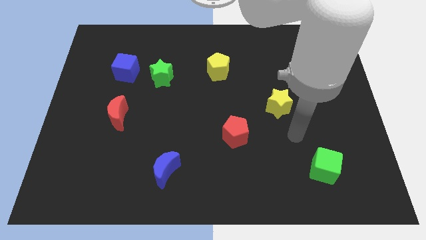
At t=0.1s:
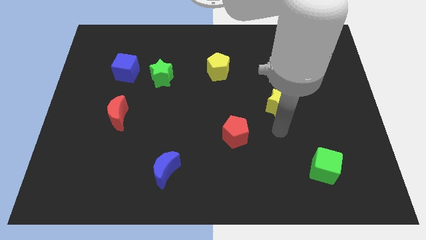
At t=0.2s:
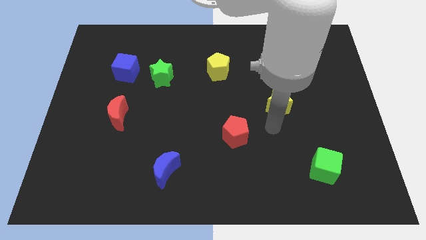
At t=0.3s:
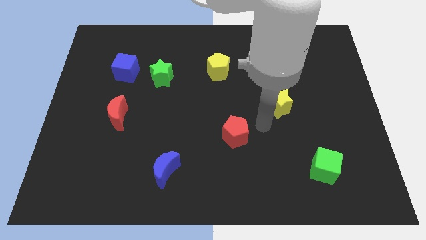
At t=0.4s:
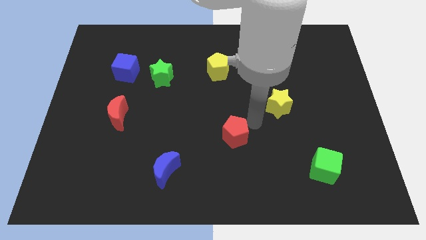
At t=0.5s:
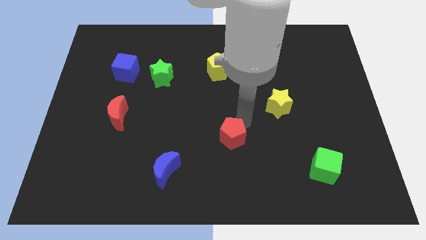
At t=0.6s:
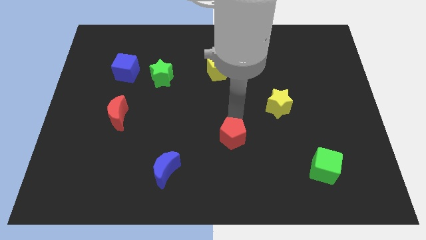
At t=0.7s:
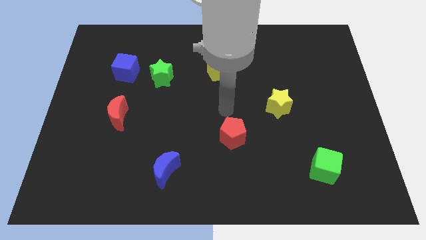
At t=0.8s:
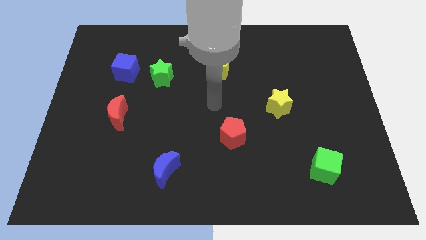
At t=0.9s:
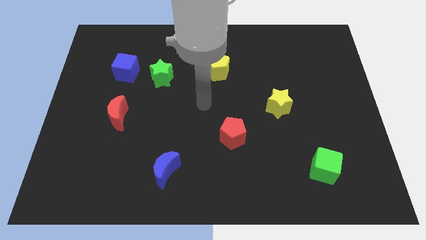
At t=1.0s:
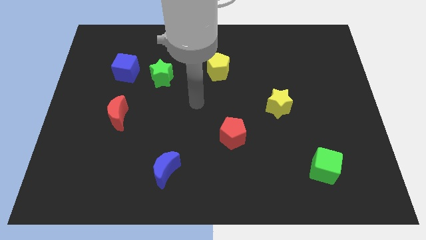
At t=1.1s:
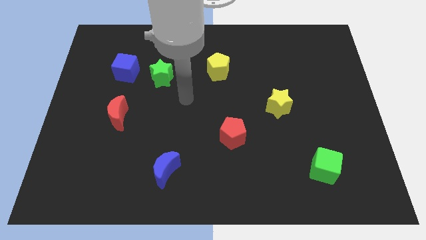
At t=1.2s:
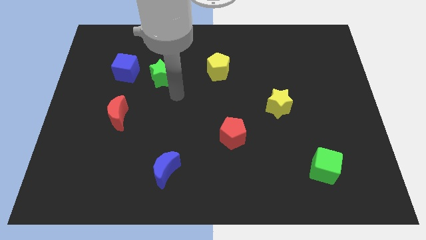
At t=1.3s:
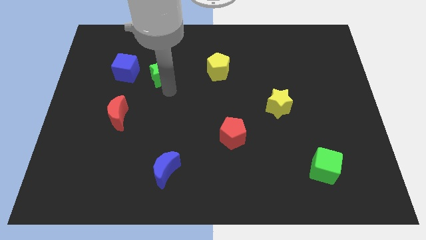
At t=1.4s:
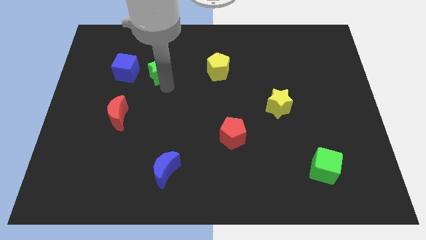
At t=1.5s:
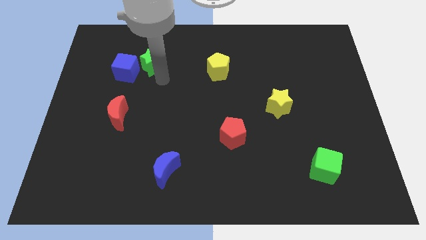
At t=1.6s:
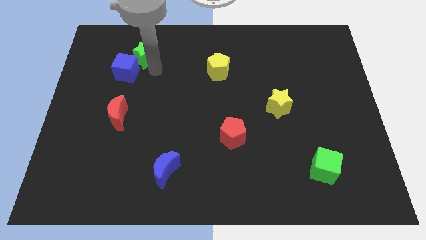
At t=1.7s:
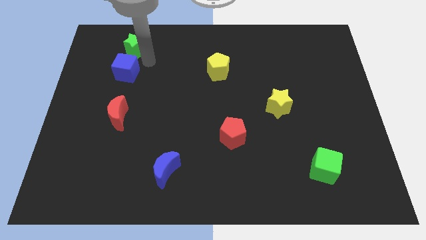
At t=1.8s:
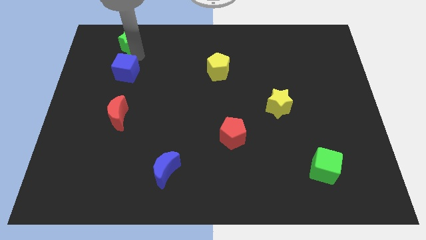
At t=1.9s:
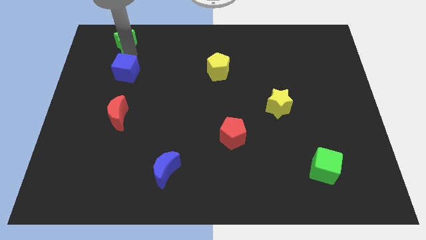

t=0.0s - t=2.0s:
separate the blue cube from the green star

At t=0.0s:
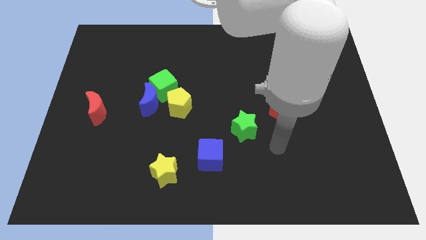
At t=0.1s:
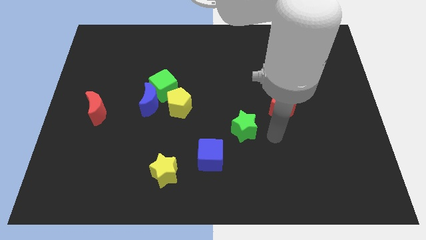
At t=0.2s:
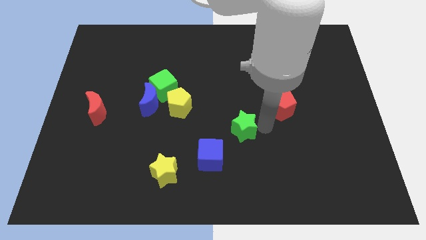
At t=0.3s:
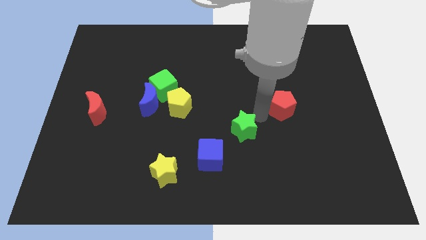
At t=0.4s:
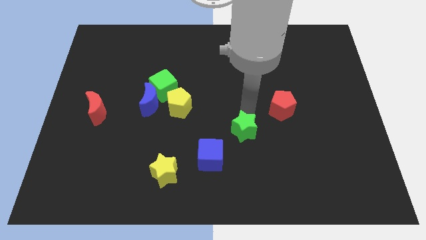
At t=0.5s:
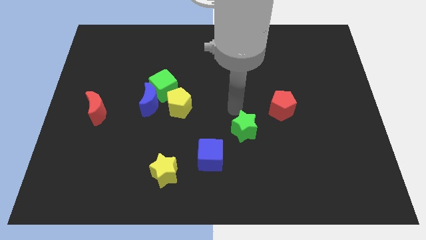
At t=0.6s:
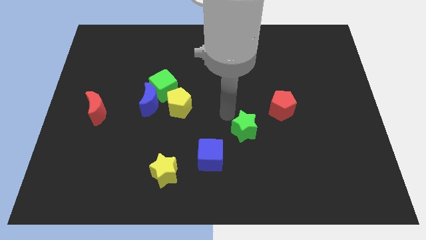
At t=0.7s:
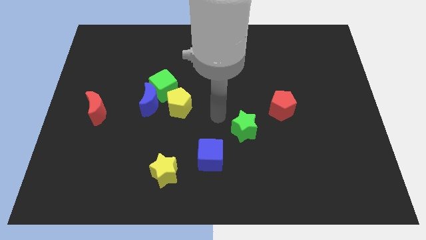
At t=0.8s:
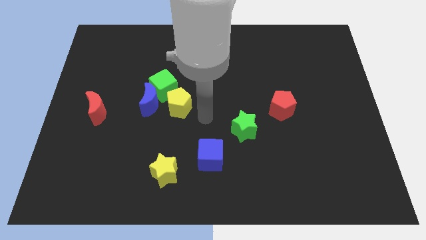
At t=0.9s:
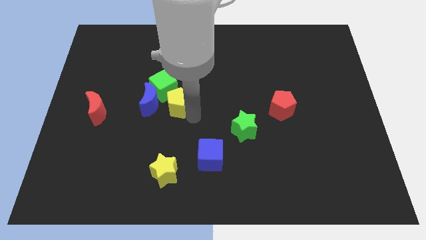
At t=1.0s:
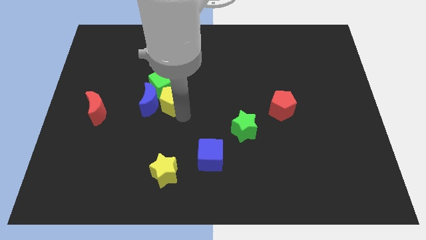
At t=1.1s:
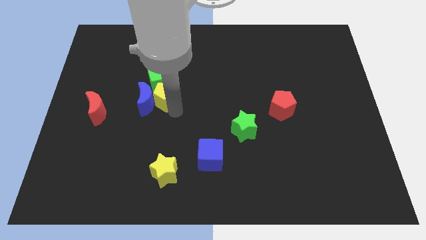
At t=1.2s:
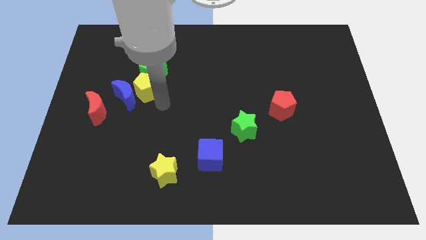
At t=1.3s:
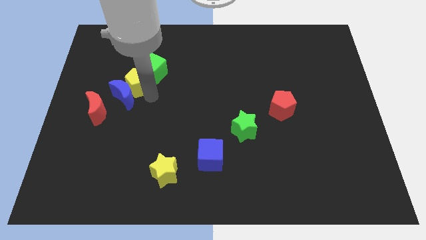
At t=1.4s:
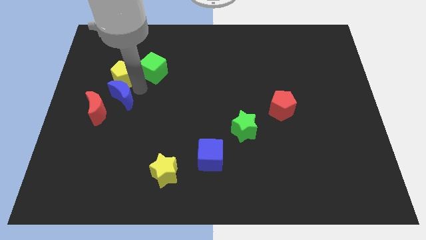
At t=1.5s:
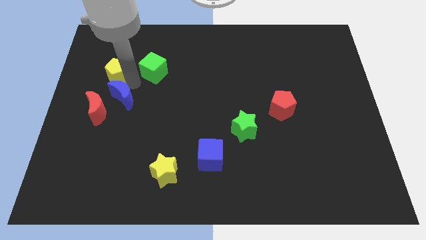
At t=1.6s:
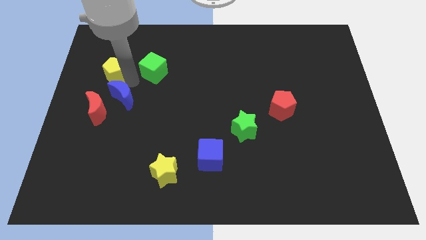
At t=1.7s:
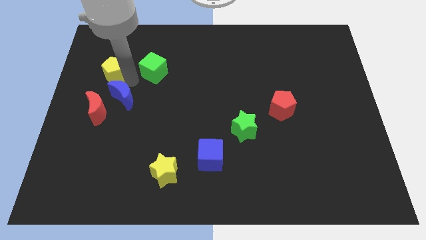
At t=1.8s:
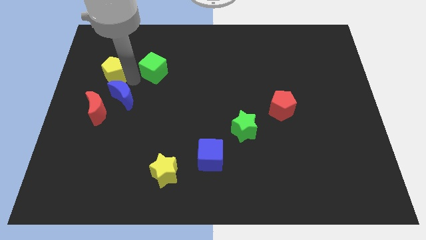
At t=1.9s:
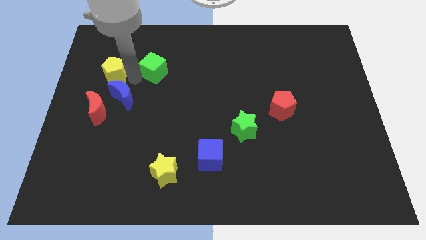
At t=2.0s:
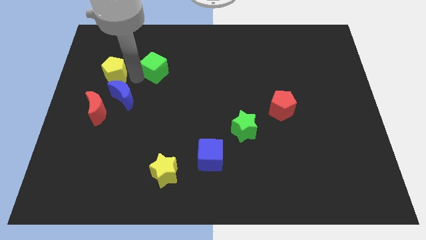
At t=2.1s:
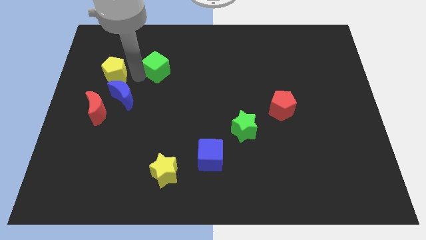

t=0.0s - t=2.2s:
pull the green cube apart from the blue moon and yellow pentagon

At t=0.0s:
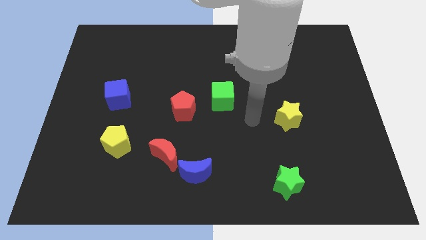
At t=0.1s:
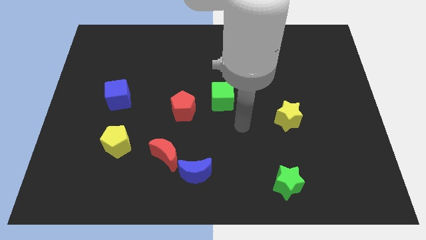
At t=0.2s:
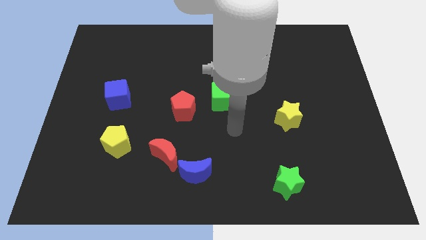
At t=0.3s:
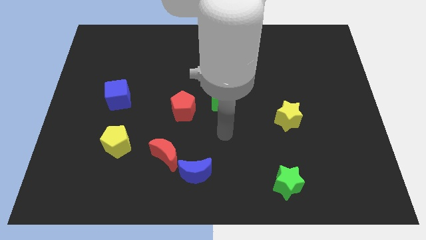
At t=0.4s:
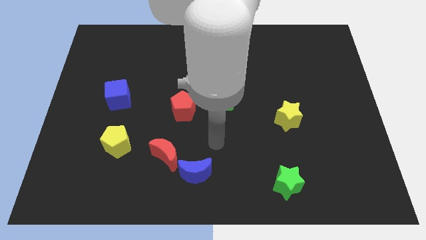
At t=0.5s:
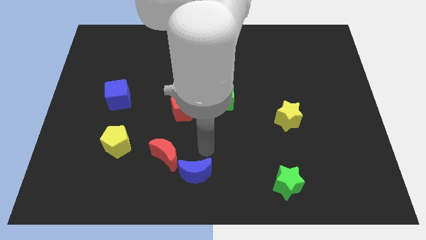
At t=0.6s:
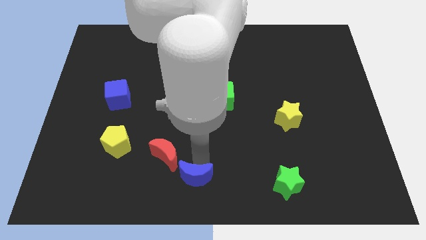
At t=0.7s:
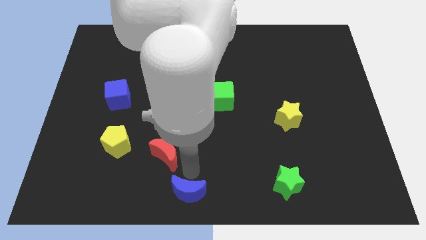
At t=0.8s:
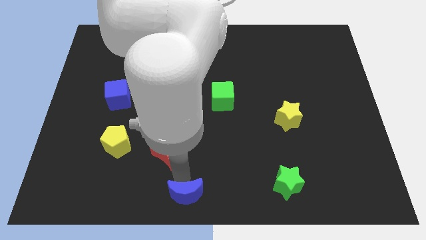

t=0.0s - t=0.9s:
pull the red moon apart from the blue moon

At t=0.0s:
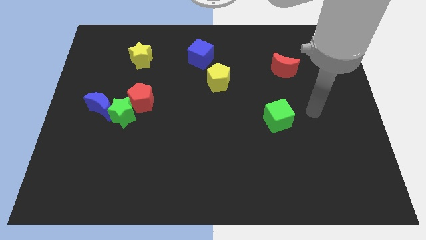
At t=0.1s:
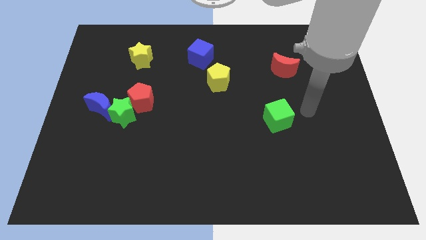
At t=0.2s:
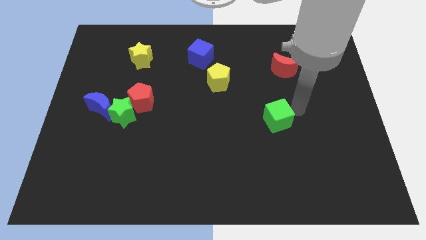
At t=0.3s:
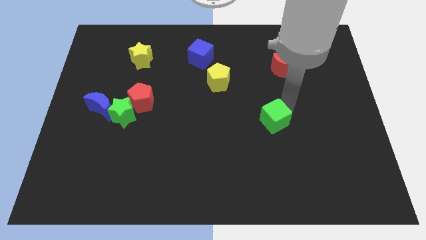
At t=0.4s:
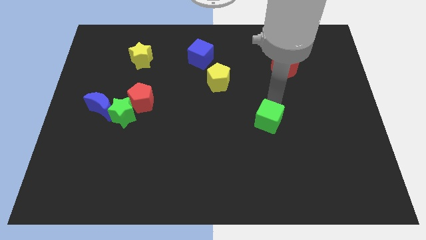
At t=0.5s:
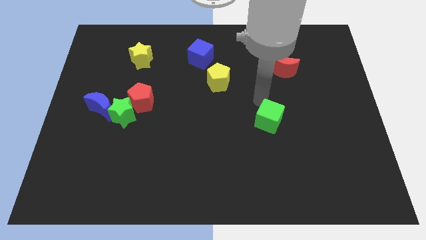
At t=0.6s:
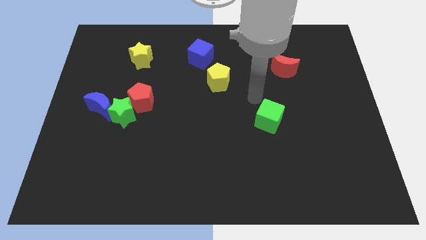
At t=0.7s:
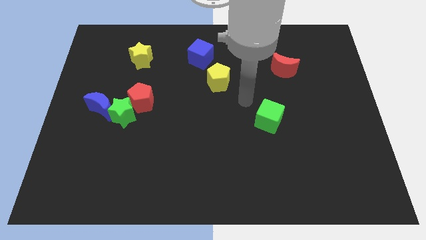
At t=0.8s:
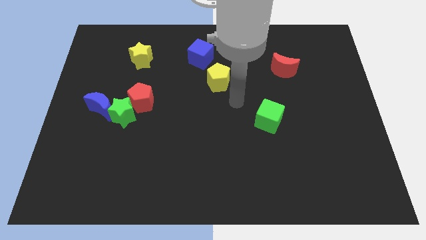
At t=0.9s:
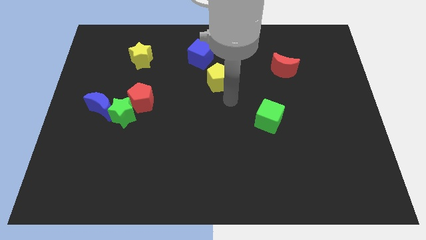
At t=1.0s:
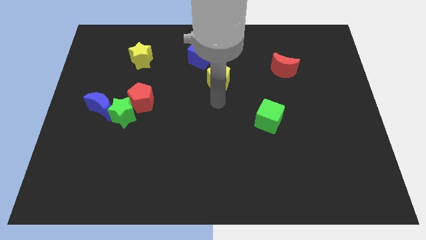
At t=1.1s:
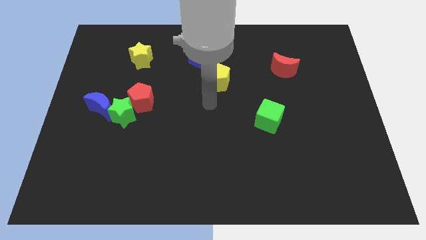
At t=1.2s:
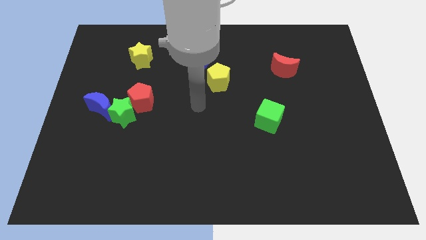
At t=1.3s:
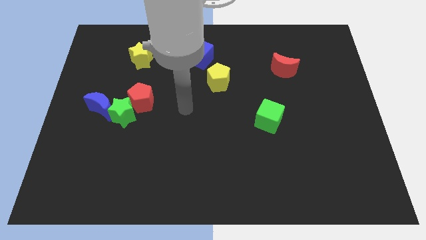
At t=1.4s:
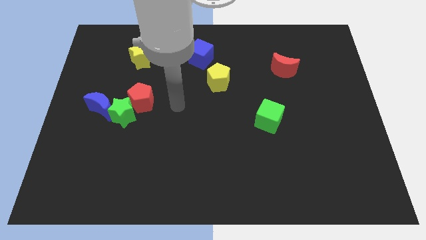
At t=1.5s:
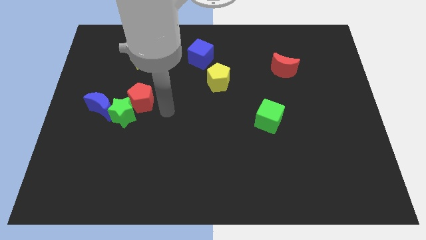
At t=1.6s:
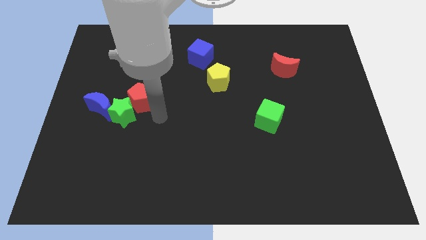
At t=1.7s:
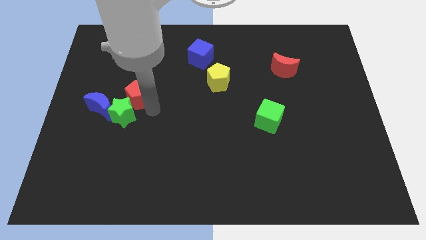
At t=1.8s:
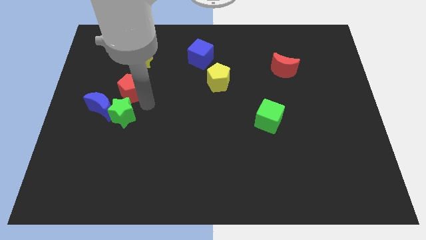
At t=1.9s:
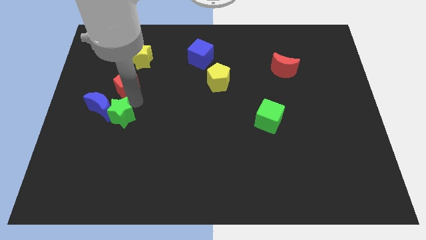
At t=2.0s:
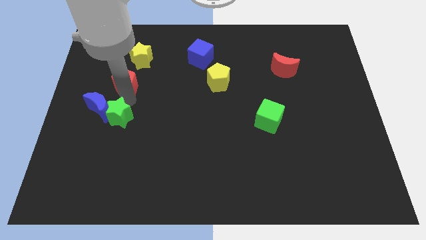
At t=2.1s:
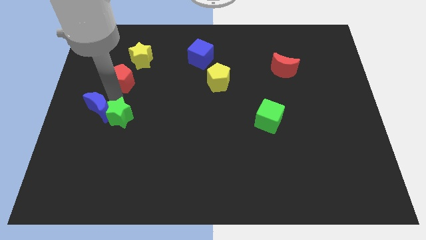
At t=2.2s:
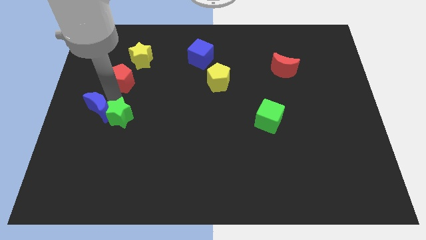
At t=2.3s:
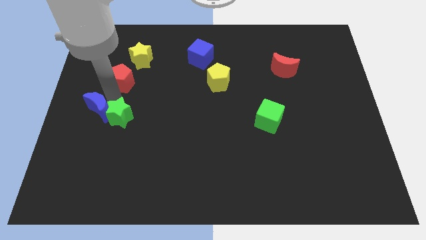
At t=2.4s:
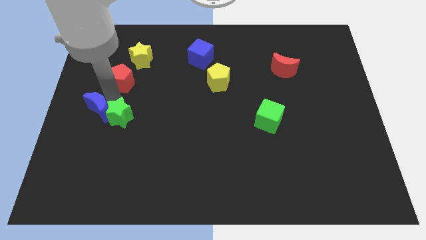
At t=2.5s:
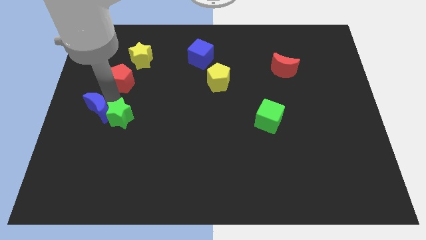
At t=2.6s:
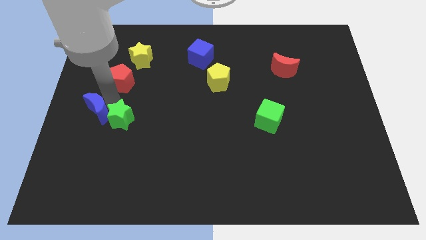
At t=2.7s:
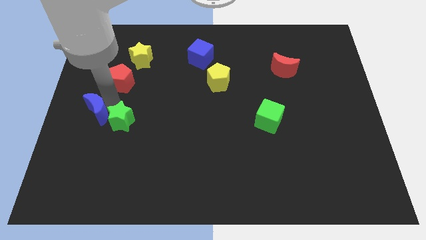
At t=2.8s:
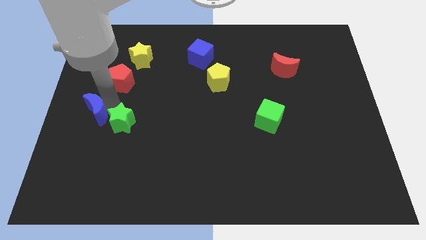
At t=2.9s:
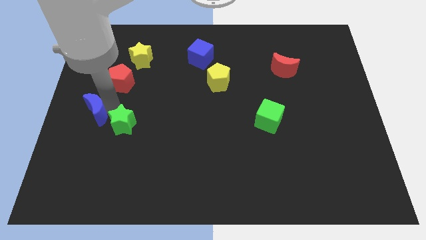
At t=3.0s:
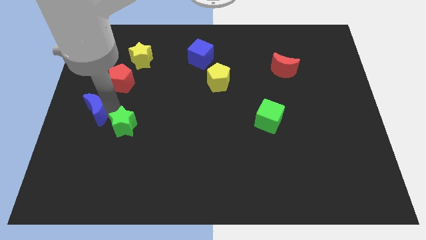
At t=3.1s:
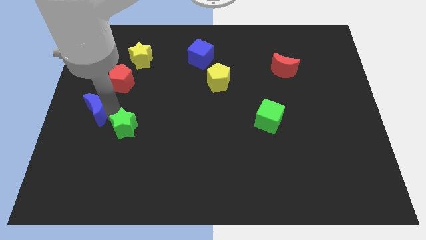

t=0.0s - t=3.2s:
separate the green star from the red pentagon and blue moon

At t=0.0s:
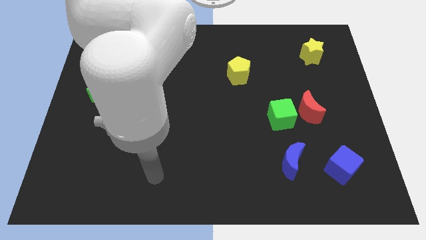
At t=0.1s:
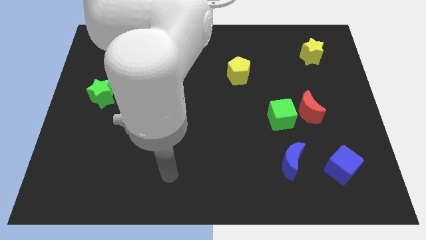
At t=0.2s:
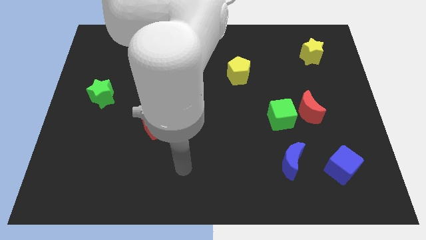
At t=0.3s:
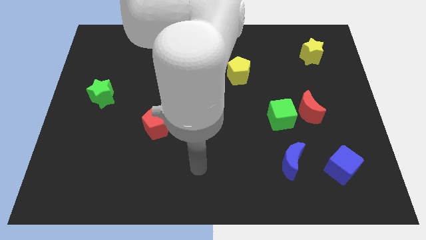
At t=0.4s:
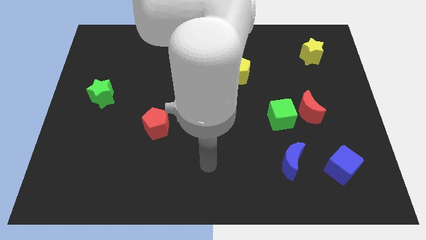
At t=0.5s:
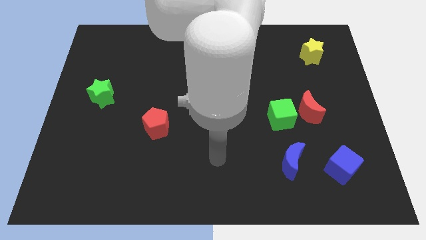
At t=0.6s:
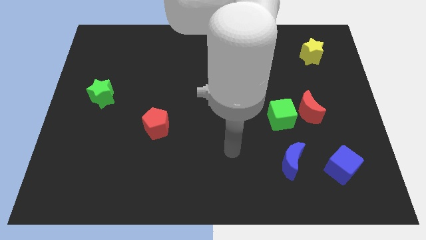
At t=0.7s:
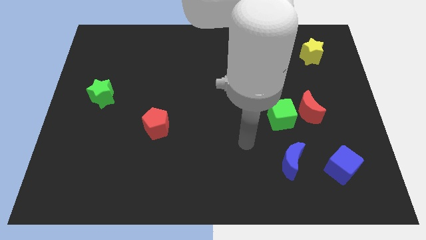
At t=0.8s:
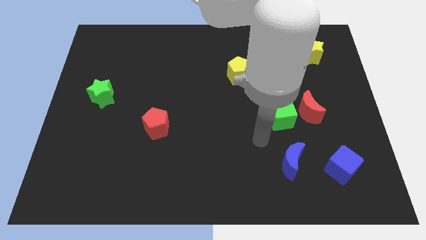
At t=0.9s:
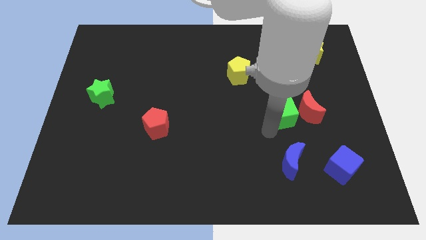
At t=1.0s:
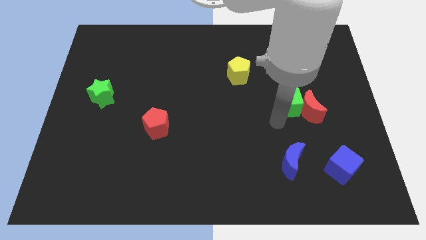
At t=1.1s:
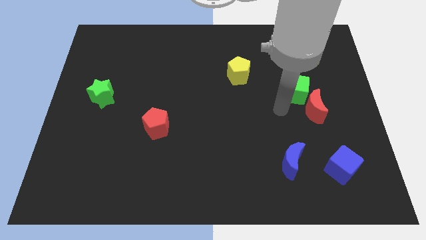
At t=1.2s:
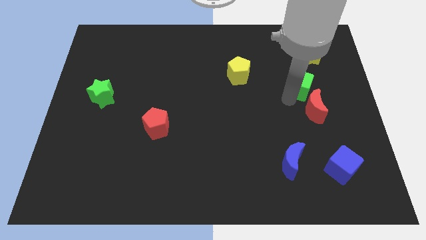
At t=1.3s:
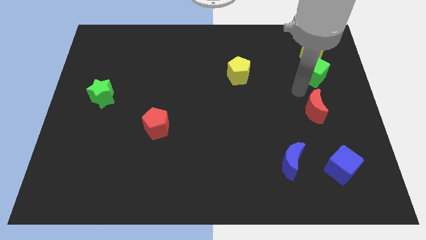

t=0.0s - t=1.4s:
pull the red moon apart from the green cube
